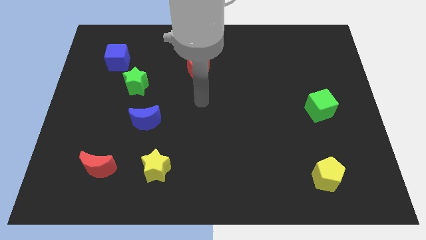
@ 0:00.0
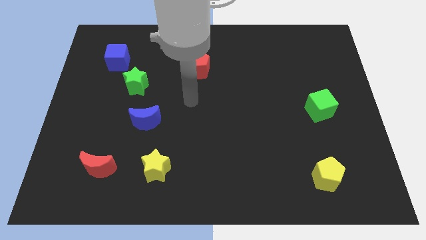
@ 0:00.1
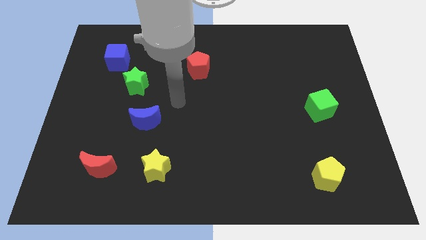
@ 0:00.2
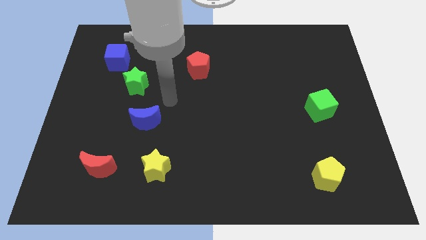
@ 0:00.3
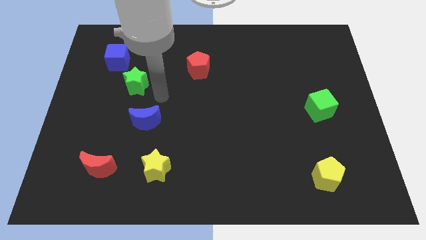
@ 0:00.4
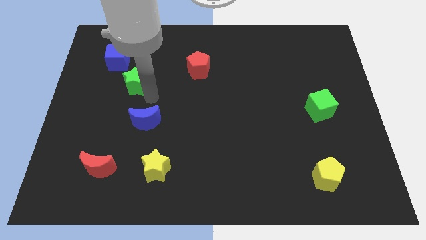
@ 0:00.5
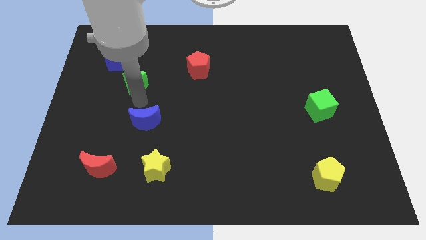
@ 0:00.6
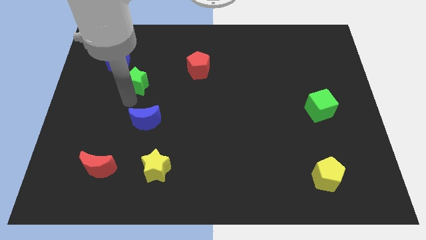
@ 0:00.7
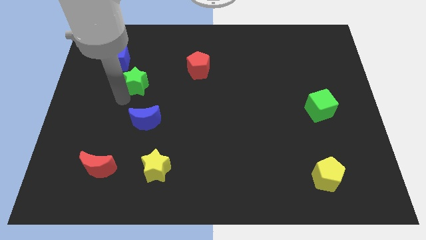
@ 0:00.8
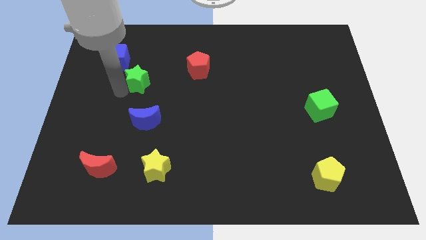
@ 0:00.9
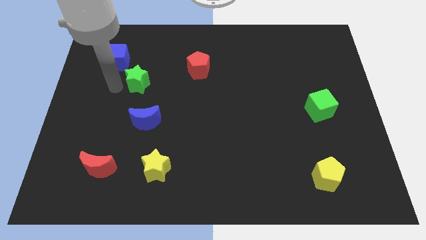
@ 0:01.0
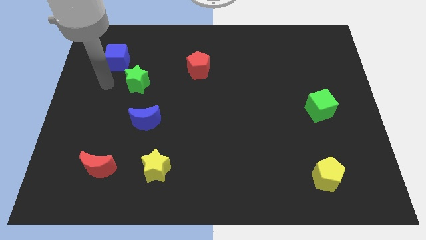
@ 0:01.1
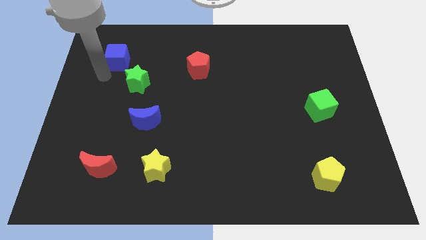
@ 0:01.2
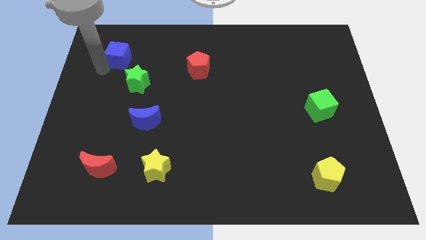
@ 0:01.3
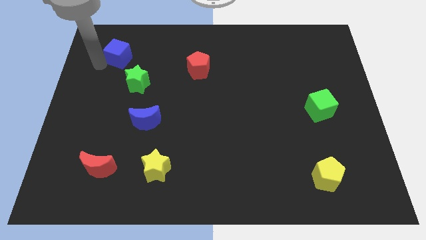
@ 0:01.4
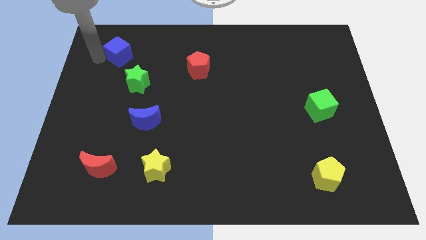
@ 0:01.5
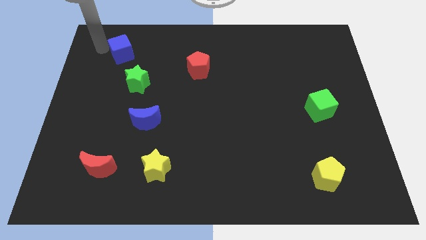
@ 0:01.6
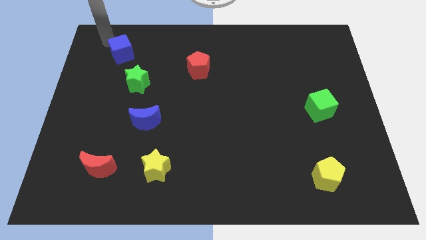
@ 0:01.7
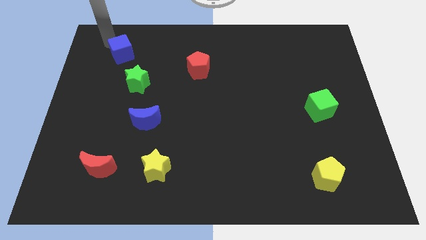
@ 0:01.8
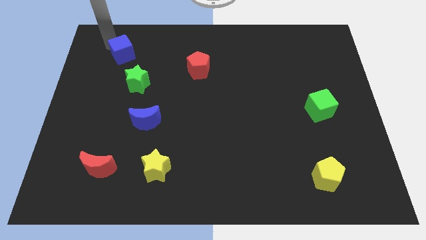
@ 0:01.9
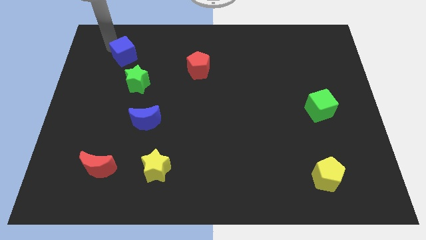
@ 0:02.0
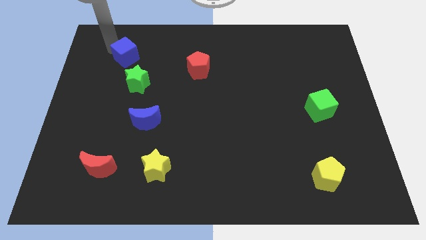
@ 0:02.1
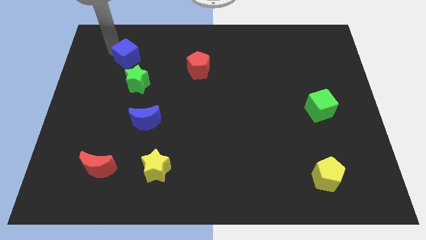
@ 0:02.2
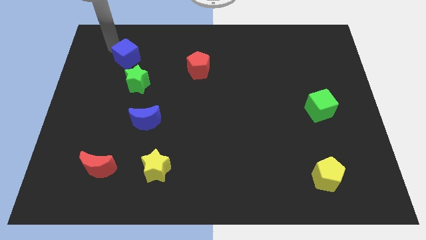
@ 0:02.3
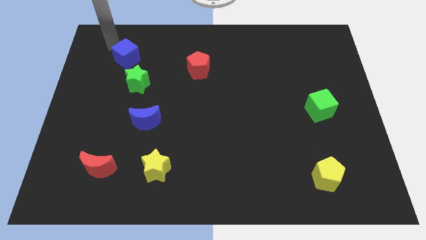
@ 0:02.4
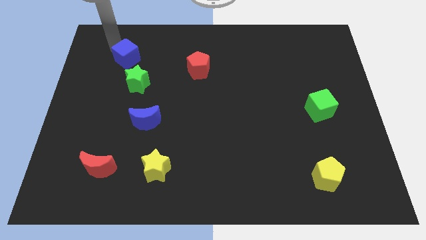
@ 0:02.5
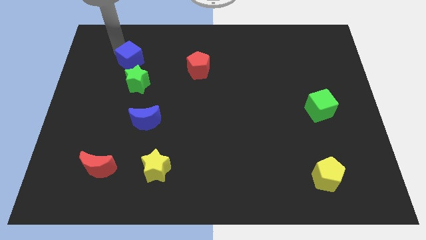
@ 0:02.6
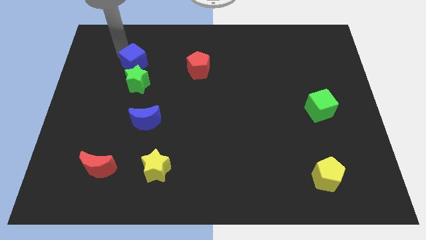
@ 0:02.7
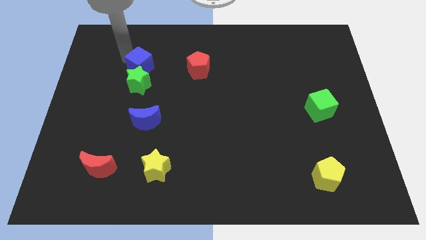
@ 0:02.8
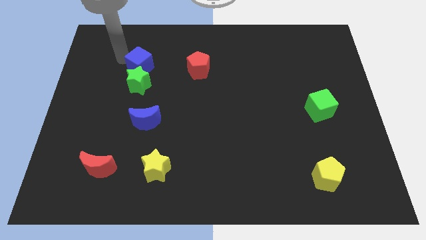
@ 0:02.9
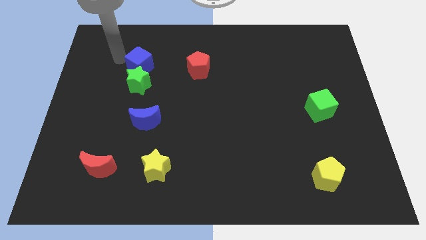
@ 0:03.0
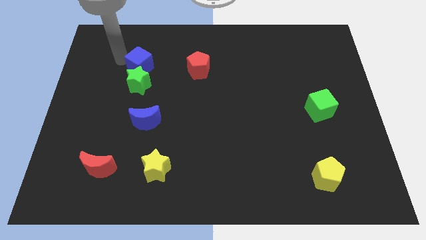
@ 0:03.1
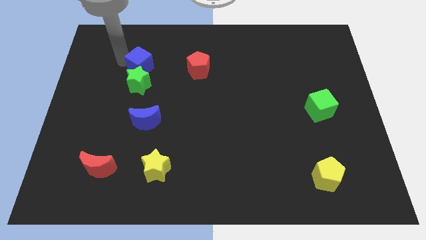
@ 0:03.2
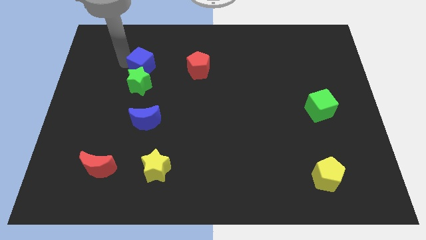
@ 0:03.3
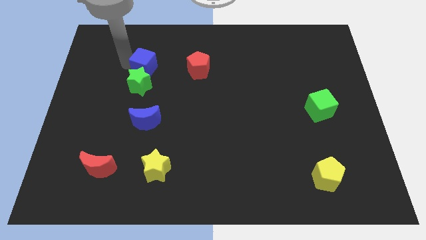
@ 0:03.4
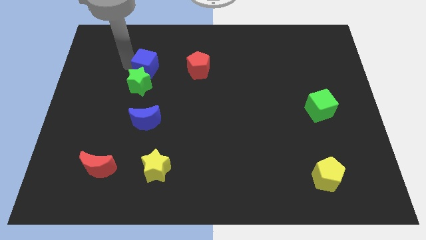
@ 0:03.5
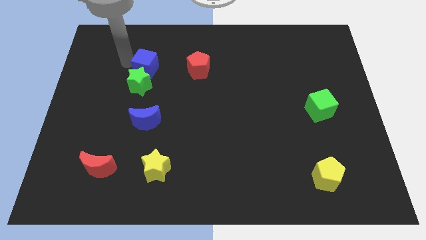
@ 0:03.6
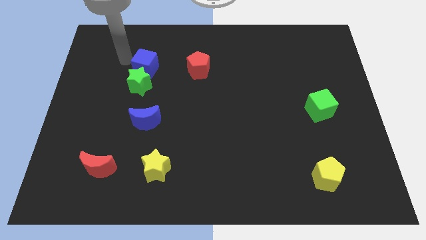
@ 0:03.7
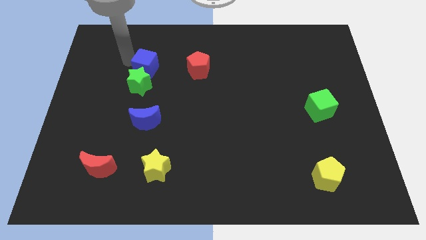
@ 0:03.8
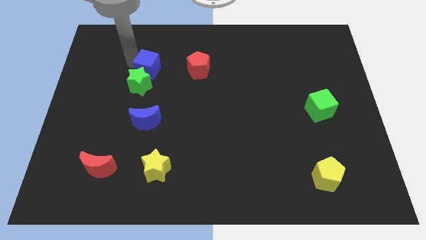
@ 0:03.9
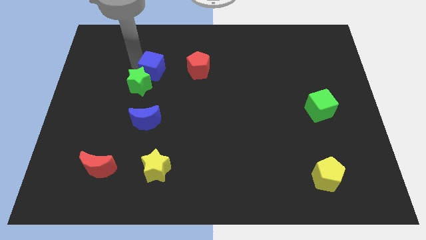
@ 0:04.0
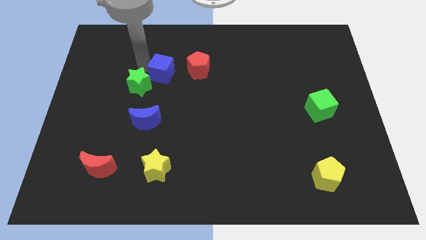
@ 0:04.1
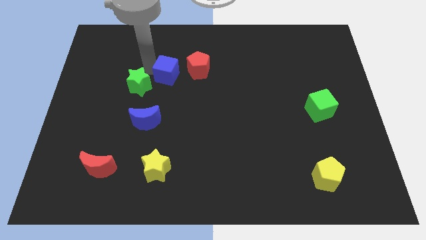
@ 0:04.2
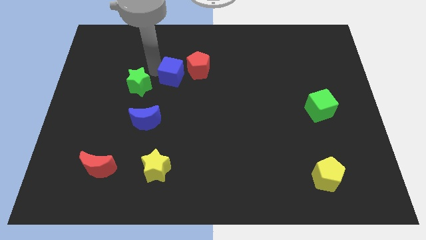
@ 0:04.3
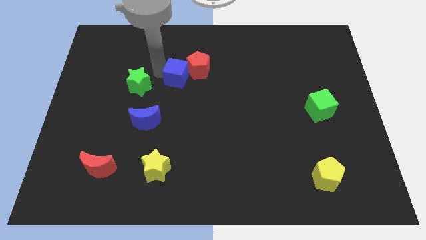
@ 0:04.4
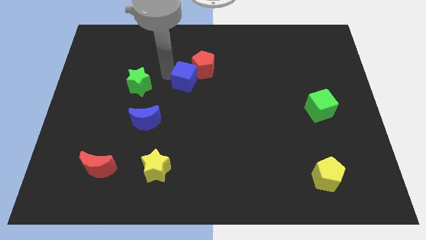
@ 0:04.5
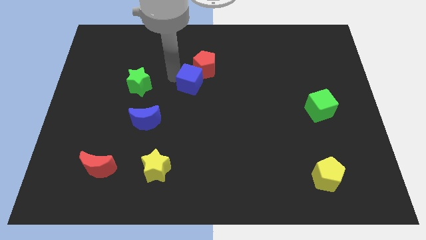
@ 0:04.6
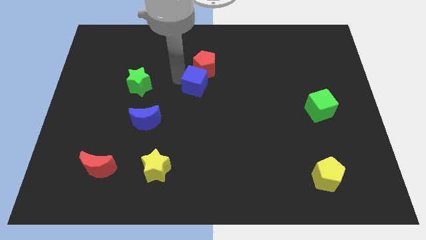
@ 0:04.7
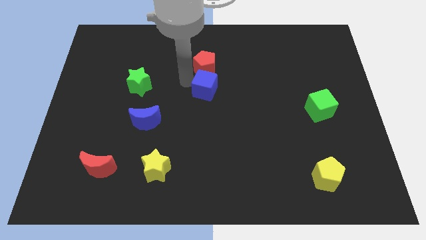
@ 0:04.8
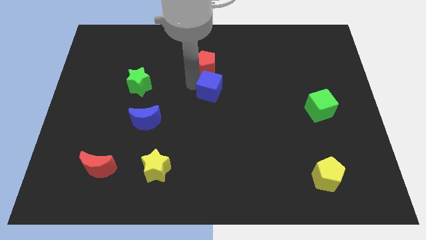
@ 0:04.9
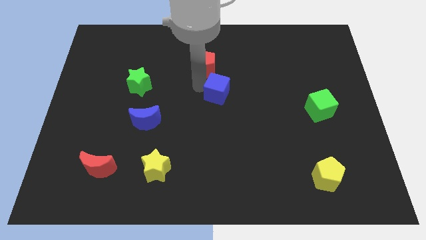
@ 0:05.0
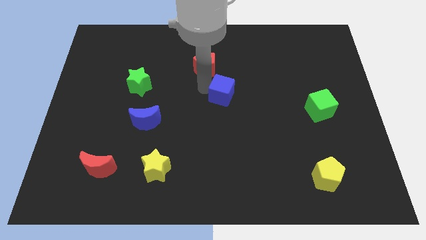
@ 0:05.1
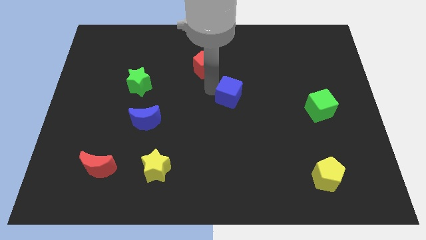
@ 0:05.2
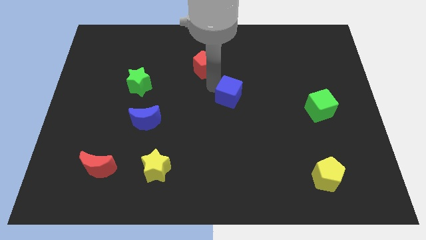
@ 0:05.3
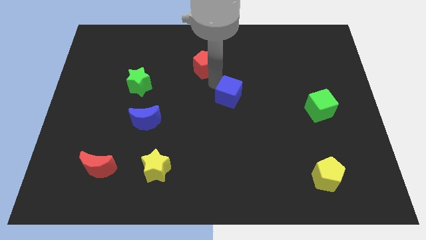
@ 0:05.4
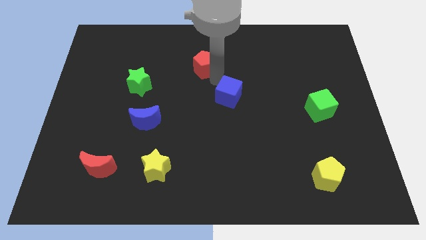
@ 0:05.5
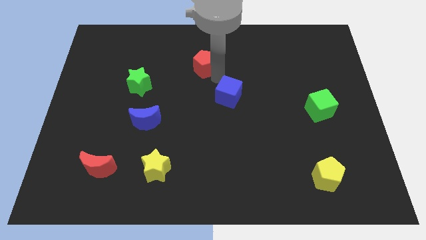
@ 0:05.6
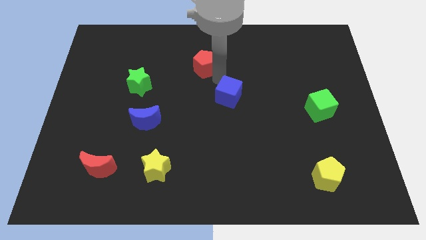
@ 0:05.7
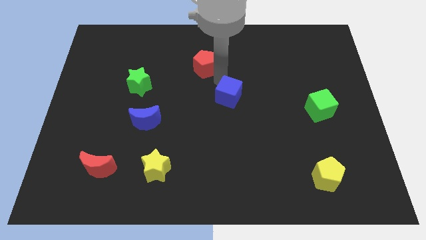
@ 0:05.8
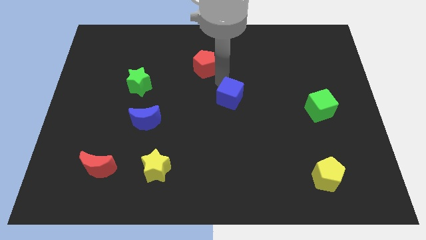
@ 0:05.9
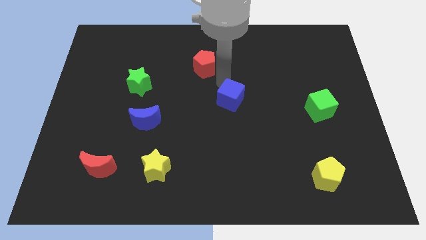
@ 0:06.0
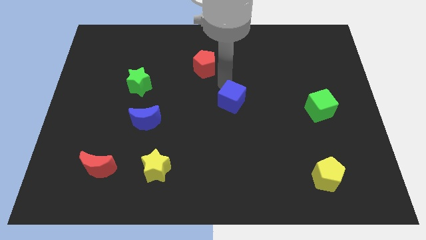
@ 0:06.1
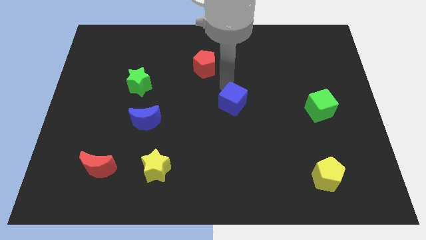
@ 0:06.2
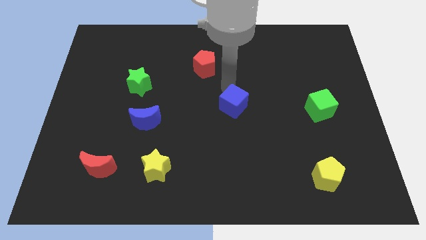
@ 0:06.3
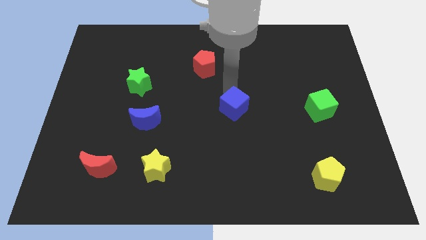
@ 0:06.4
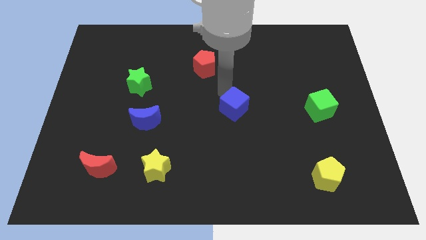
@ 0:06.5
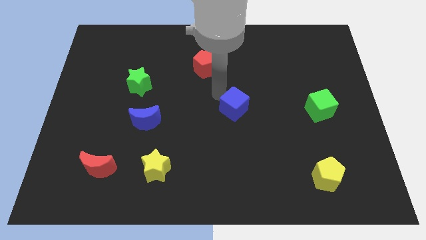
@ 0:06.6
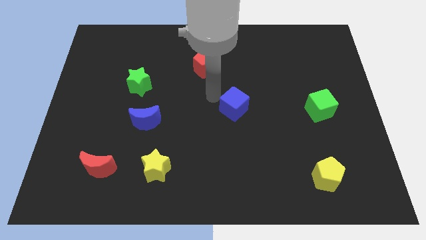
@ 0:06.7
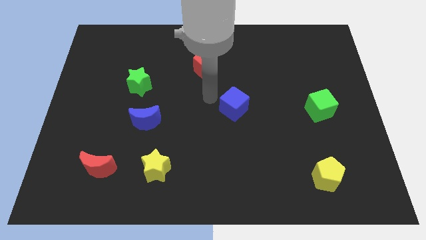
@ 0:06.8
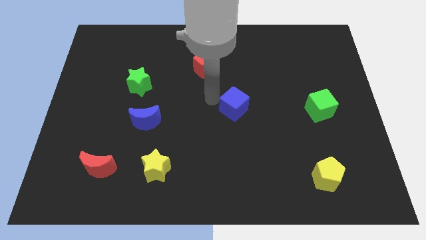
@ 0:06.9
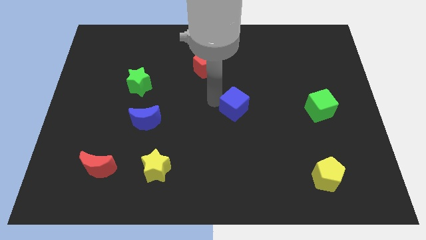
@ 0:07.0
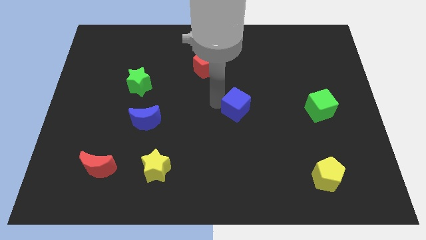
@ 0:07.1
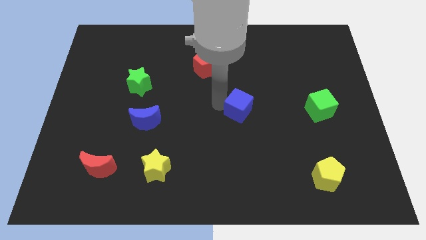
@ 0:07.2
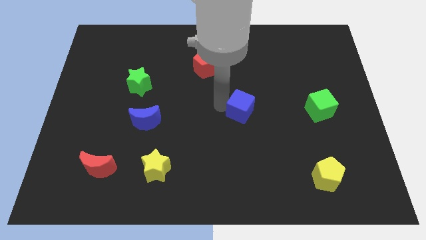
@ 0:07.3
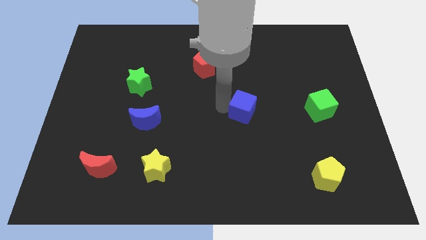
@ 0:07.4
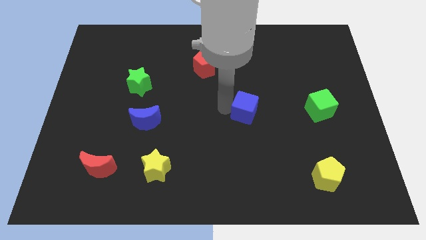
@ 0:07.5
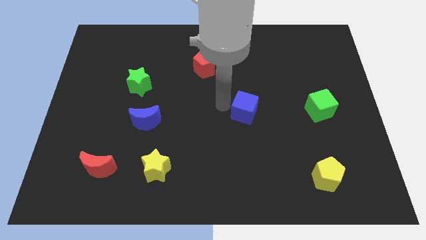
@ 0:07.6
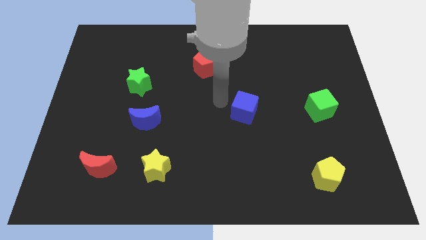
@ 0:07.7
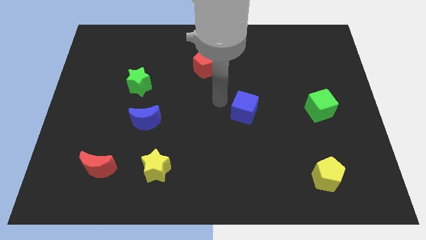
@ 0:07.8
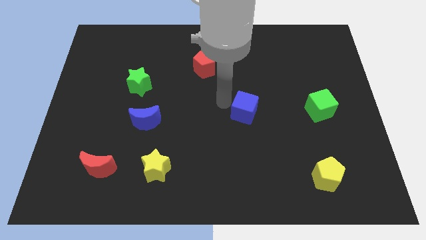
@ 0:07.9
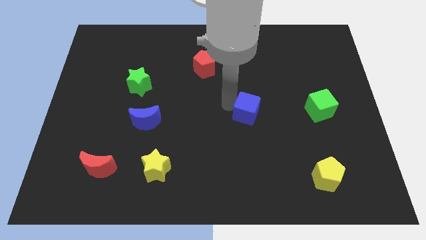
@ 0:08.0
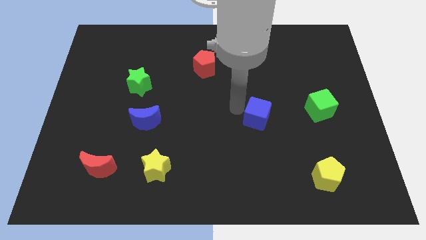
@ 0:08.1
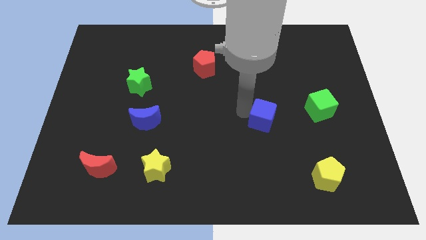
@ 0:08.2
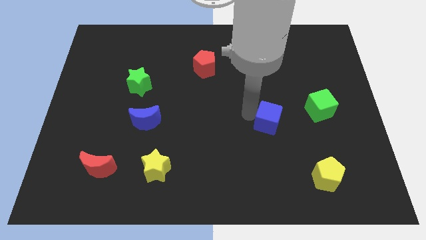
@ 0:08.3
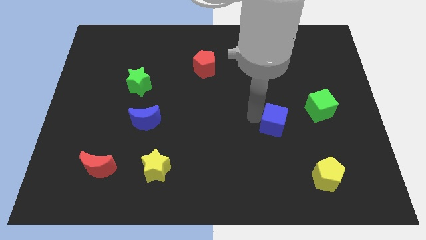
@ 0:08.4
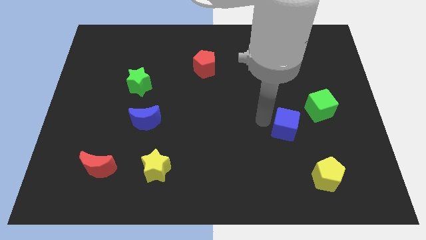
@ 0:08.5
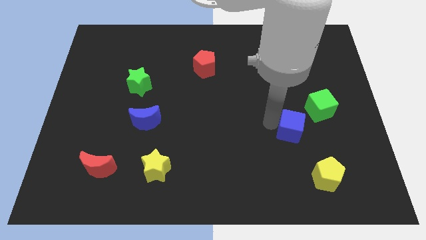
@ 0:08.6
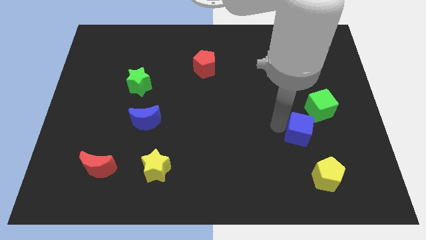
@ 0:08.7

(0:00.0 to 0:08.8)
move the blue cube to the top of the yellow pentagon
